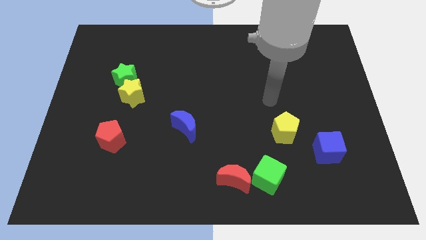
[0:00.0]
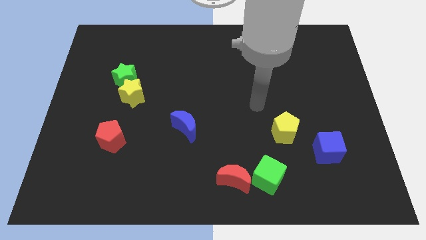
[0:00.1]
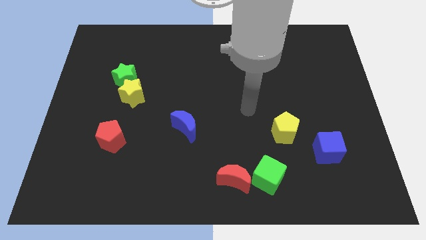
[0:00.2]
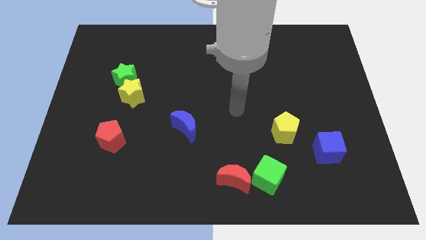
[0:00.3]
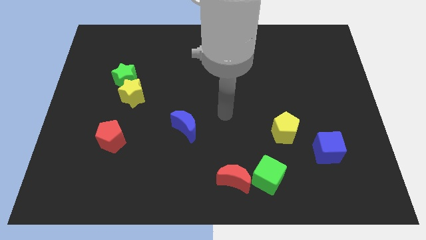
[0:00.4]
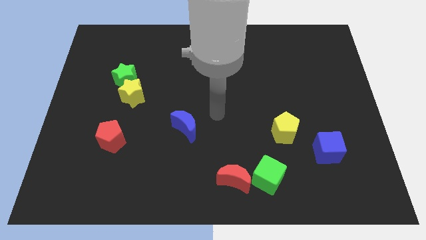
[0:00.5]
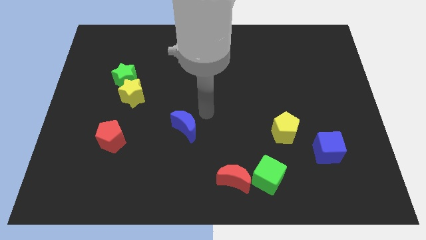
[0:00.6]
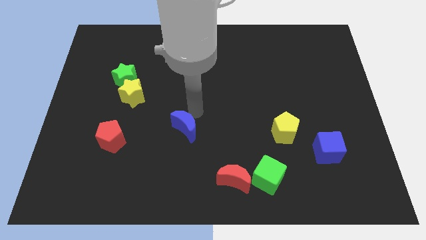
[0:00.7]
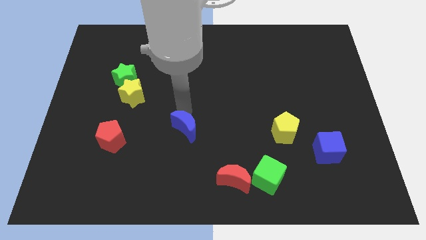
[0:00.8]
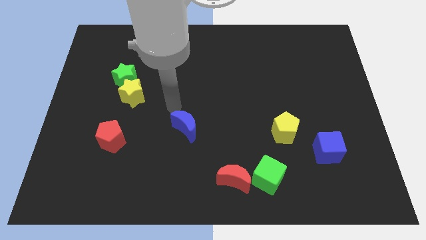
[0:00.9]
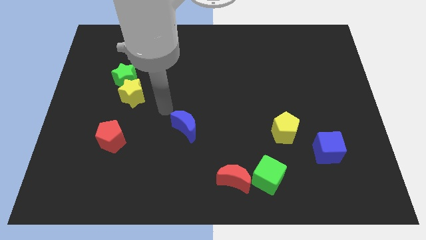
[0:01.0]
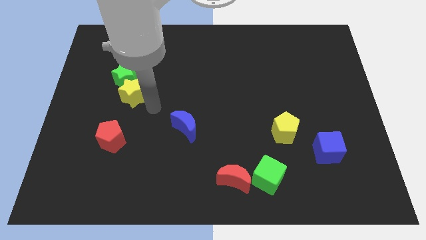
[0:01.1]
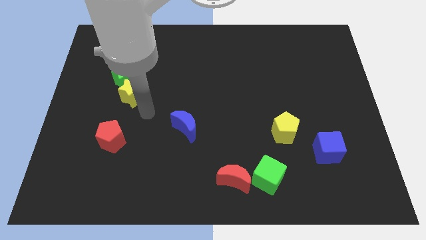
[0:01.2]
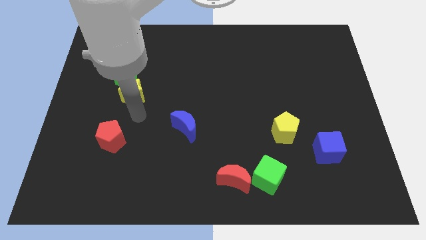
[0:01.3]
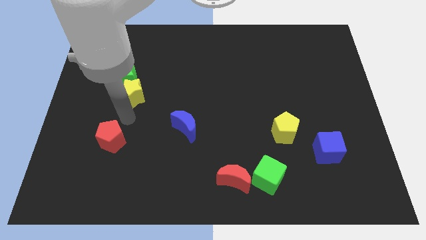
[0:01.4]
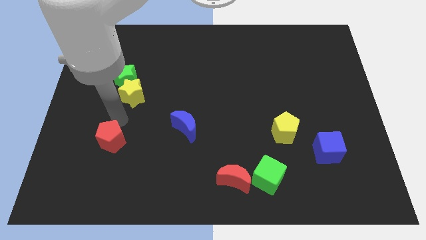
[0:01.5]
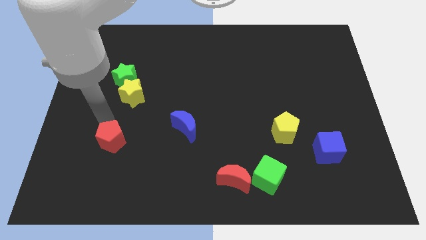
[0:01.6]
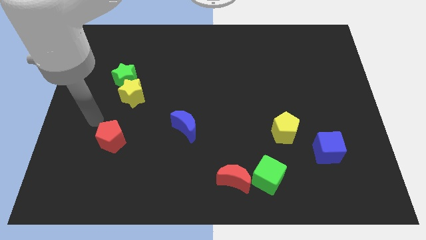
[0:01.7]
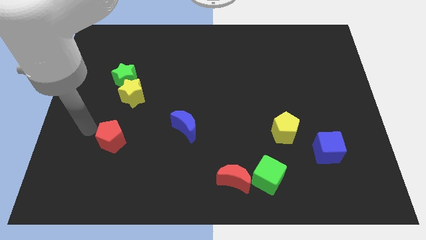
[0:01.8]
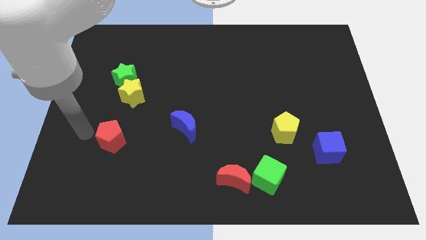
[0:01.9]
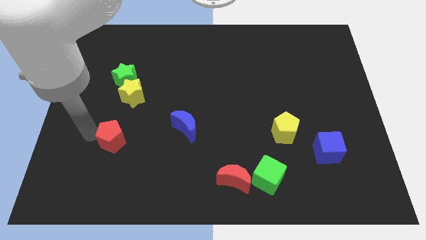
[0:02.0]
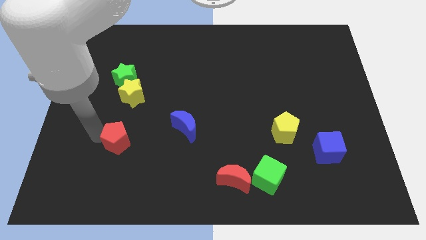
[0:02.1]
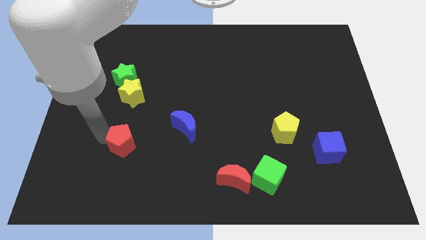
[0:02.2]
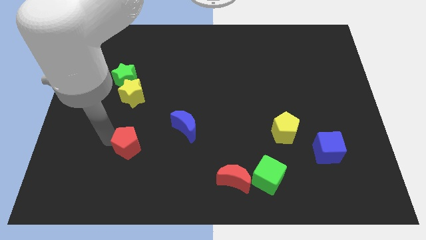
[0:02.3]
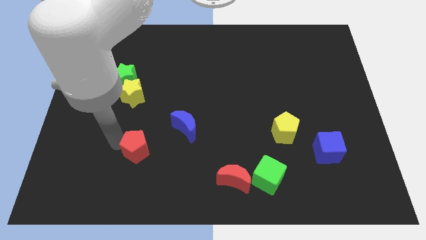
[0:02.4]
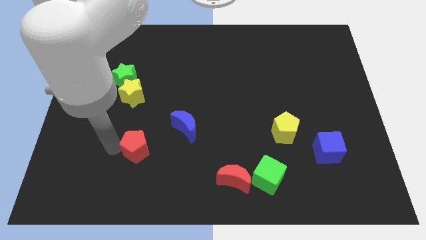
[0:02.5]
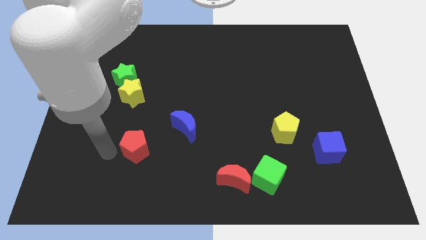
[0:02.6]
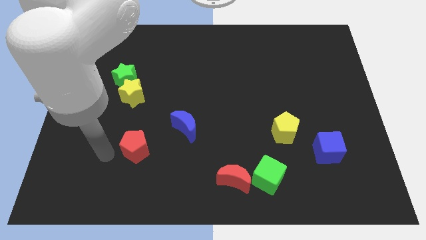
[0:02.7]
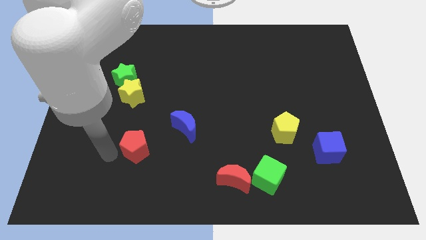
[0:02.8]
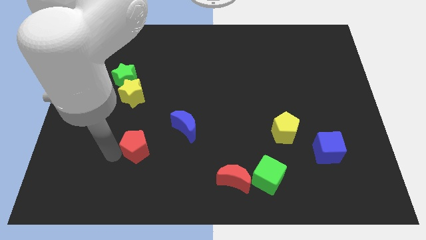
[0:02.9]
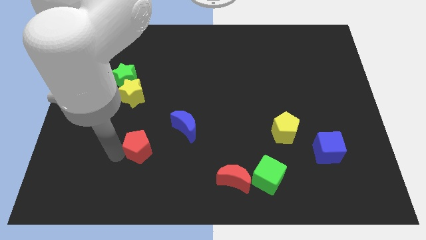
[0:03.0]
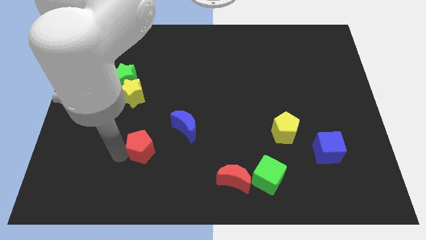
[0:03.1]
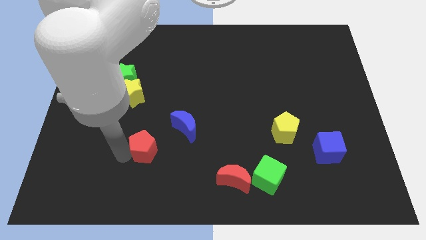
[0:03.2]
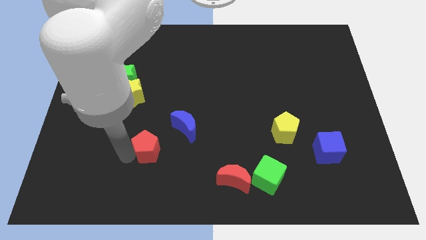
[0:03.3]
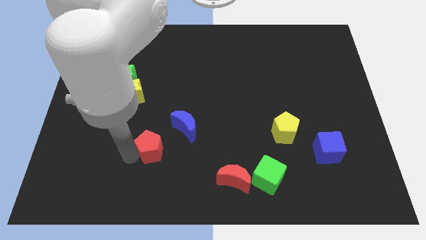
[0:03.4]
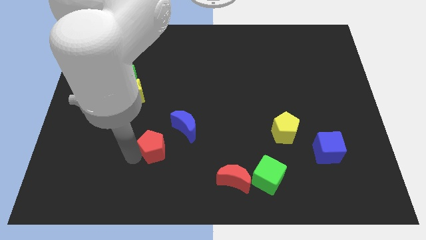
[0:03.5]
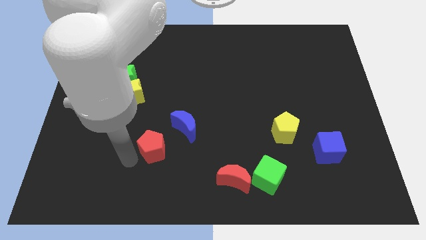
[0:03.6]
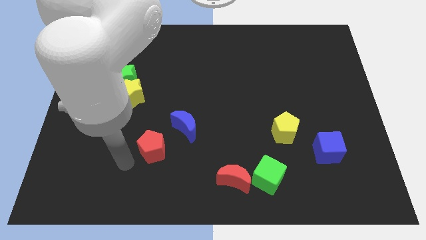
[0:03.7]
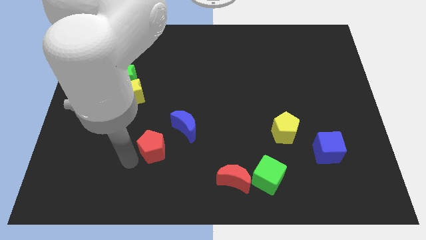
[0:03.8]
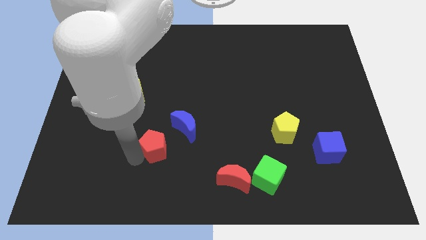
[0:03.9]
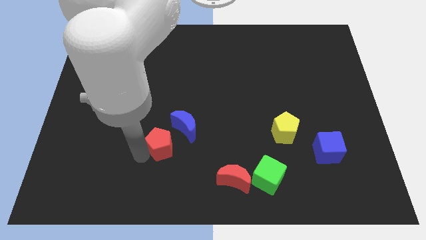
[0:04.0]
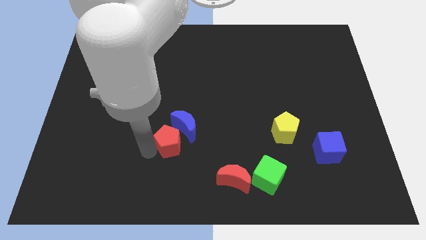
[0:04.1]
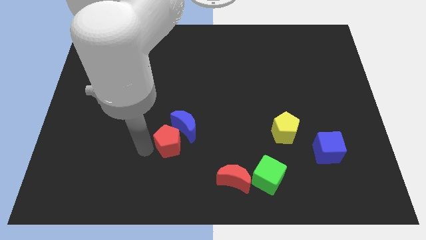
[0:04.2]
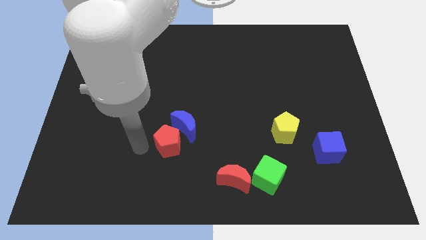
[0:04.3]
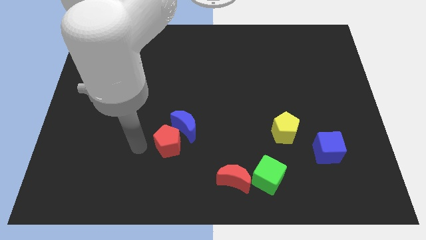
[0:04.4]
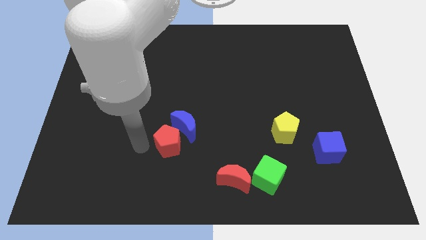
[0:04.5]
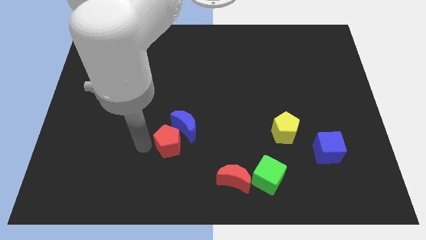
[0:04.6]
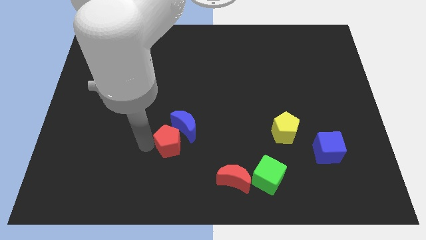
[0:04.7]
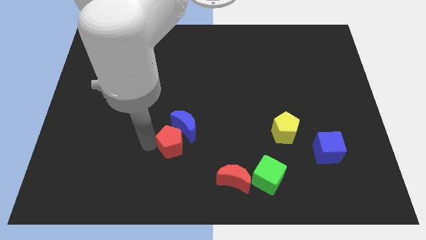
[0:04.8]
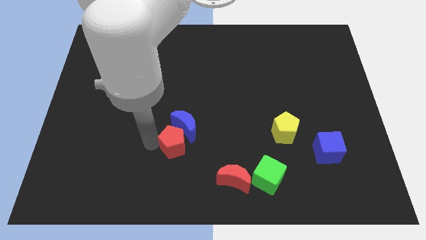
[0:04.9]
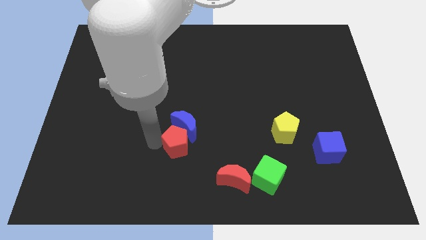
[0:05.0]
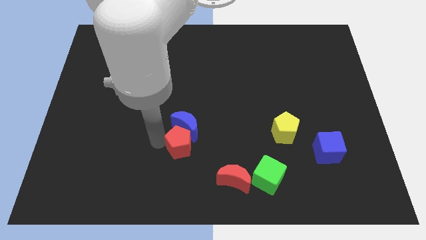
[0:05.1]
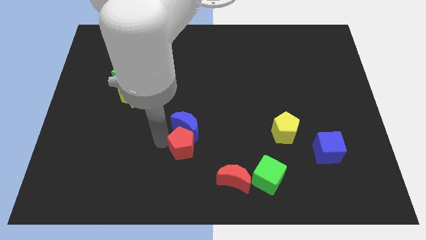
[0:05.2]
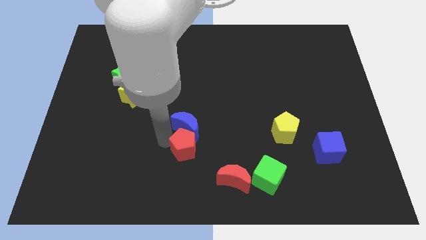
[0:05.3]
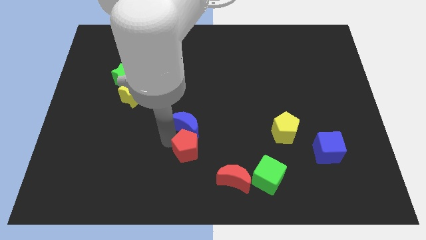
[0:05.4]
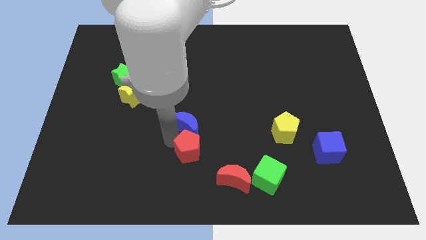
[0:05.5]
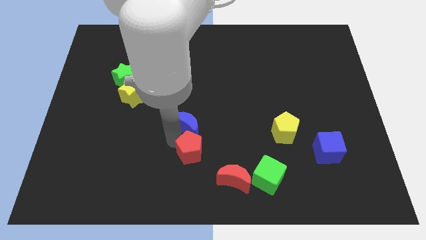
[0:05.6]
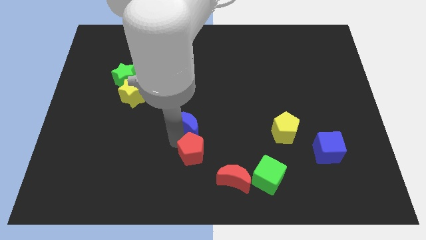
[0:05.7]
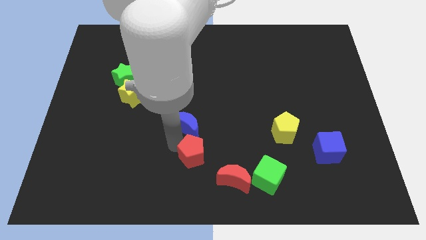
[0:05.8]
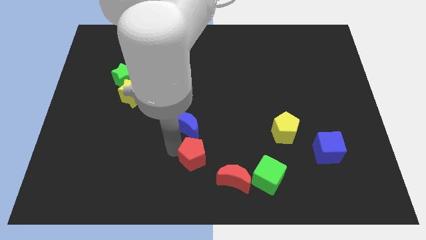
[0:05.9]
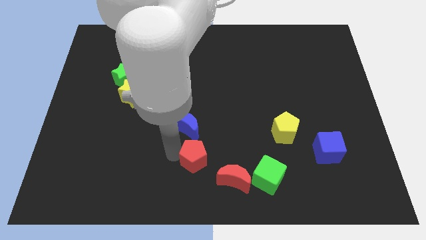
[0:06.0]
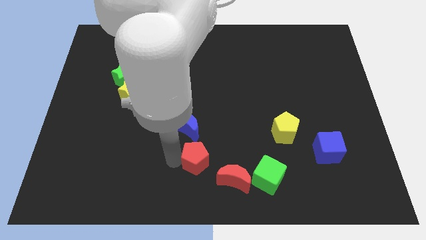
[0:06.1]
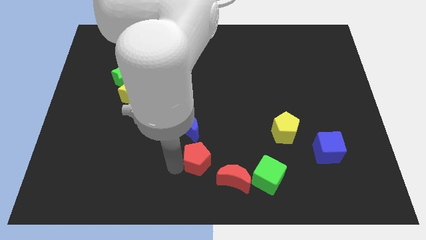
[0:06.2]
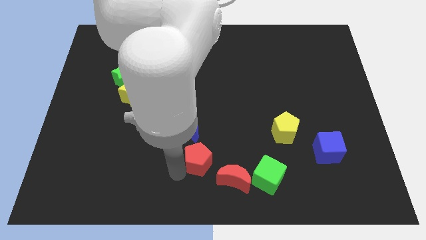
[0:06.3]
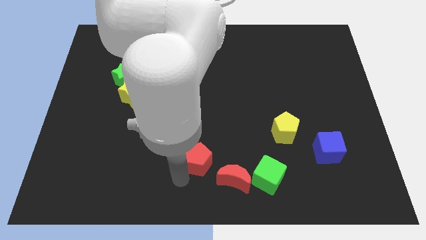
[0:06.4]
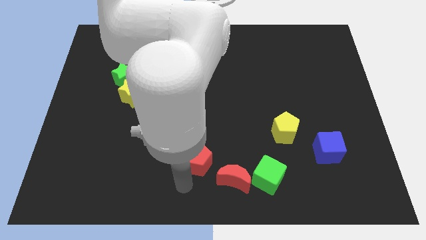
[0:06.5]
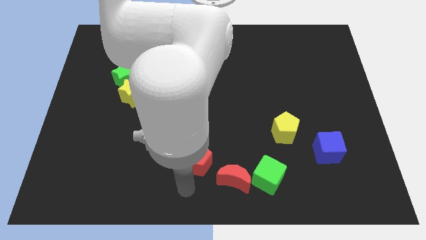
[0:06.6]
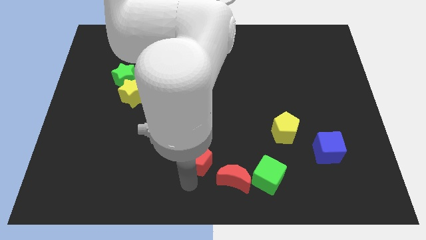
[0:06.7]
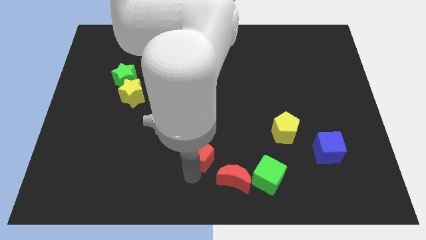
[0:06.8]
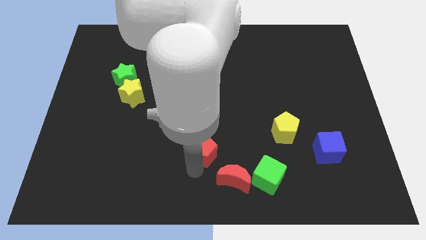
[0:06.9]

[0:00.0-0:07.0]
move the red pentagon right

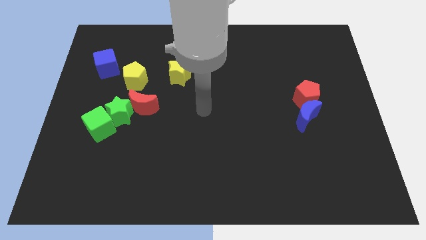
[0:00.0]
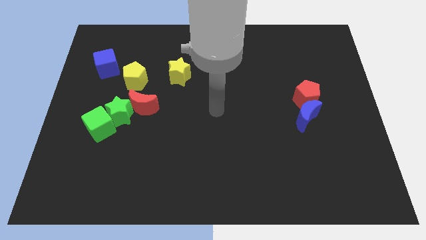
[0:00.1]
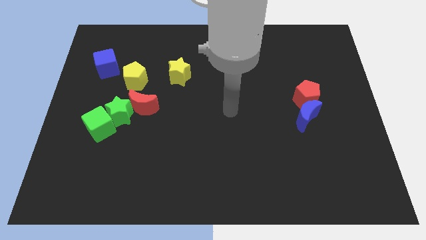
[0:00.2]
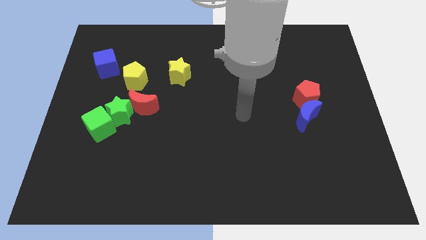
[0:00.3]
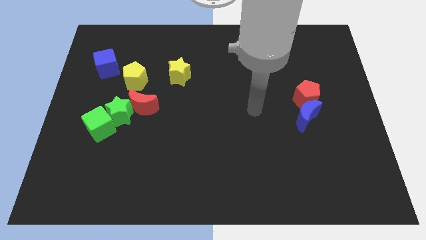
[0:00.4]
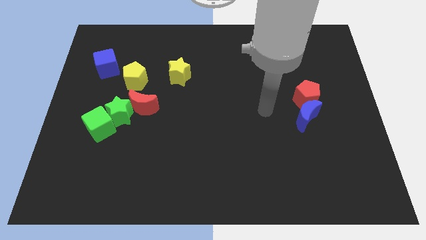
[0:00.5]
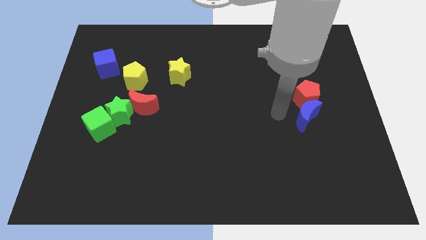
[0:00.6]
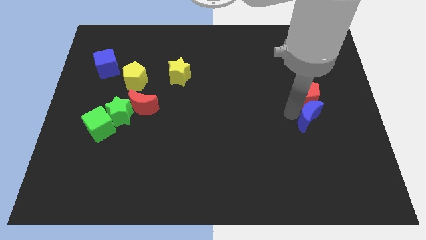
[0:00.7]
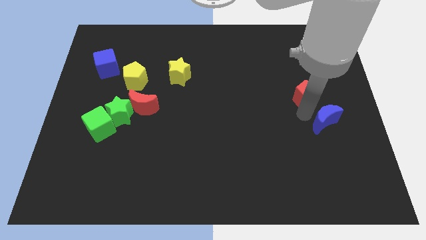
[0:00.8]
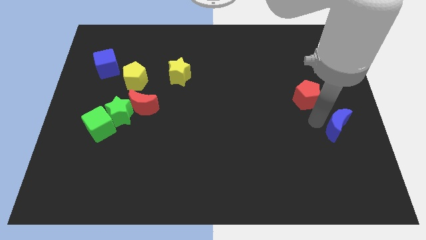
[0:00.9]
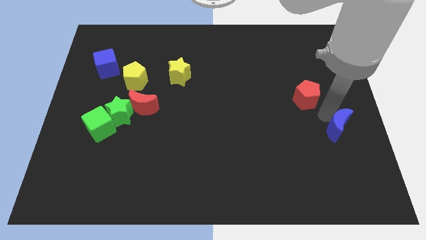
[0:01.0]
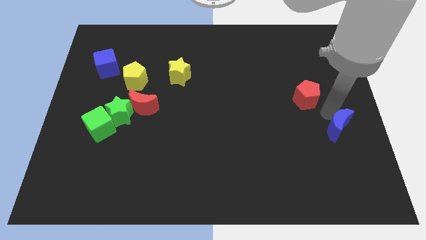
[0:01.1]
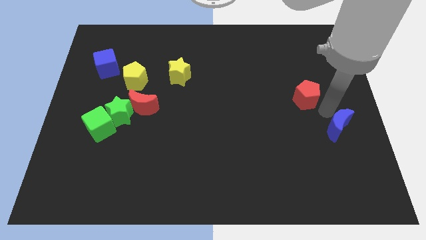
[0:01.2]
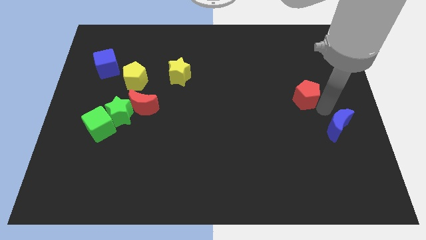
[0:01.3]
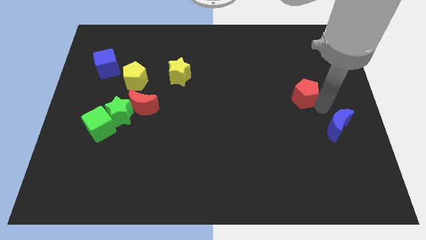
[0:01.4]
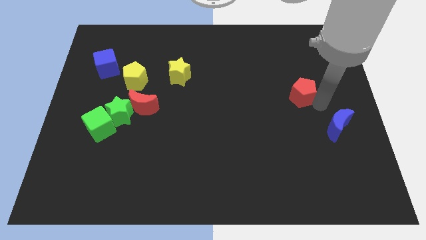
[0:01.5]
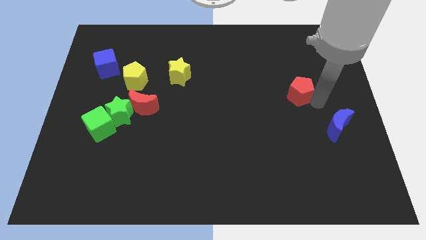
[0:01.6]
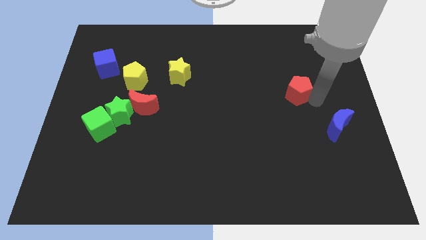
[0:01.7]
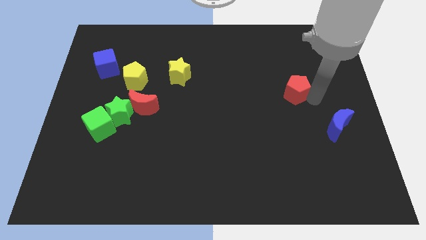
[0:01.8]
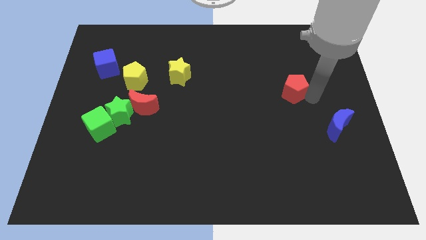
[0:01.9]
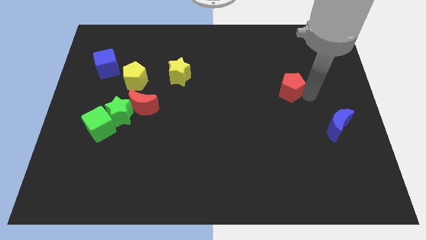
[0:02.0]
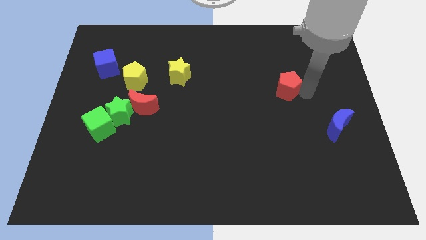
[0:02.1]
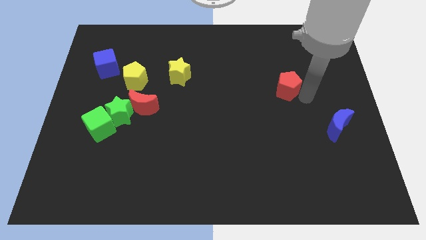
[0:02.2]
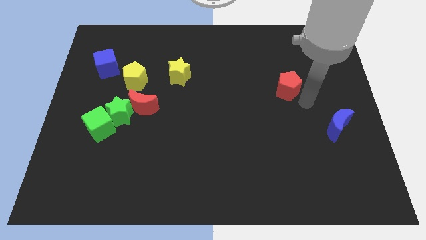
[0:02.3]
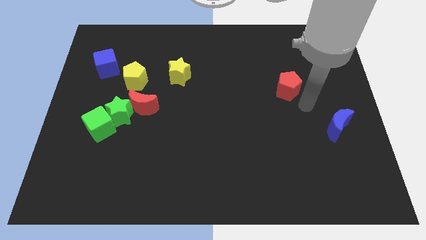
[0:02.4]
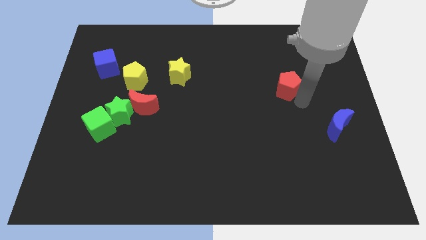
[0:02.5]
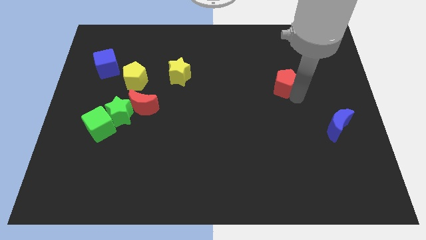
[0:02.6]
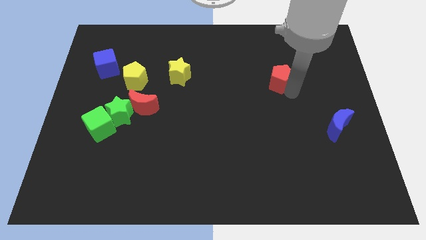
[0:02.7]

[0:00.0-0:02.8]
slightly push the red pentagon diagonally up and left
